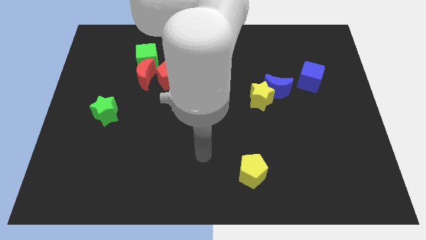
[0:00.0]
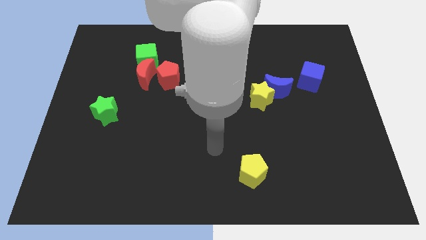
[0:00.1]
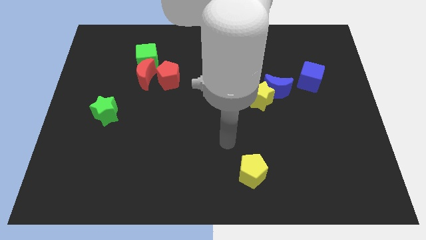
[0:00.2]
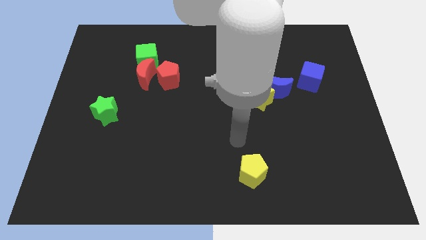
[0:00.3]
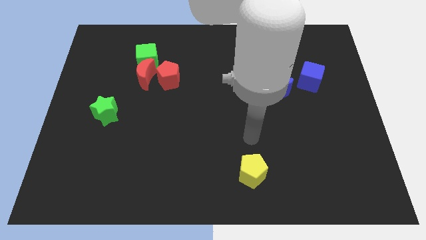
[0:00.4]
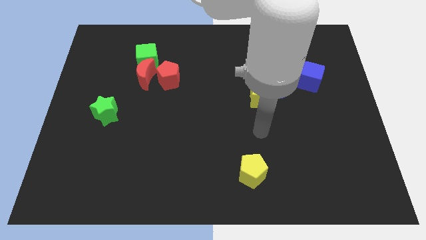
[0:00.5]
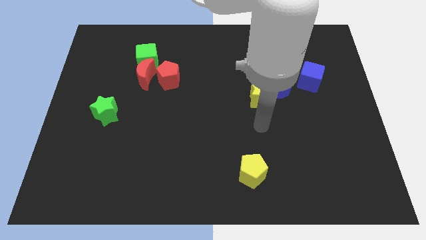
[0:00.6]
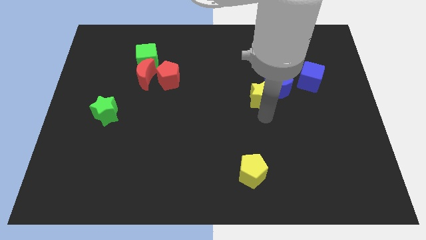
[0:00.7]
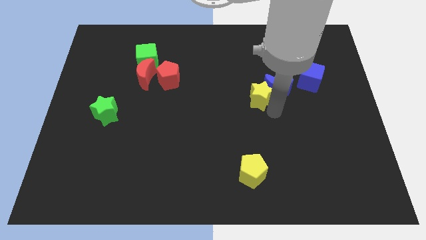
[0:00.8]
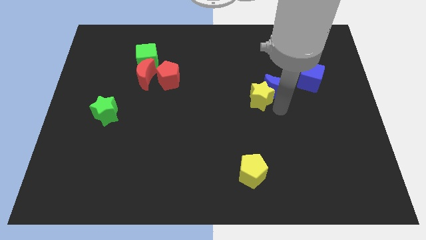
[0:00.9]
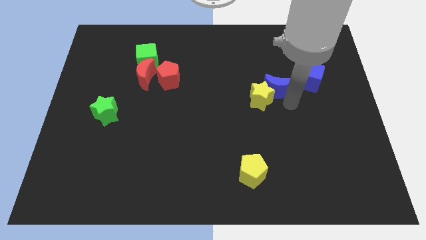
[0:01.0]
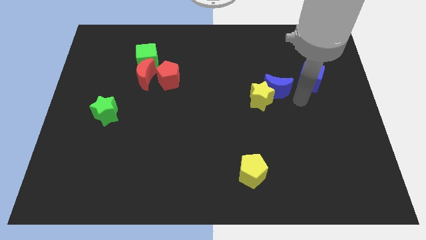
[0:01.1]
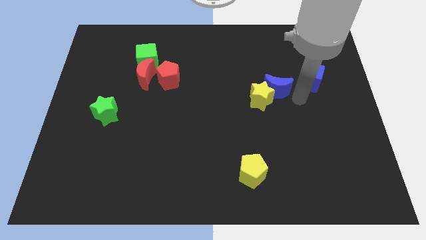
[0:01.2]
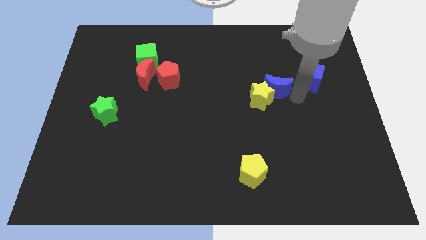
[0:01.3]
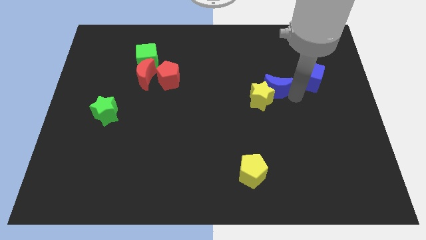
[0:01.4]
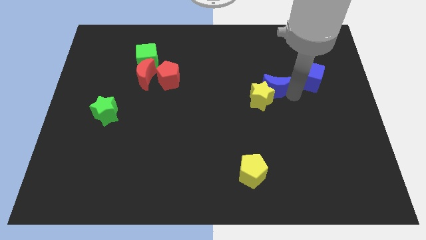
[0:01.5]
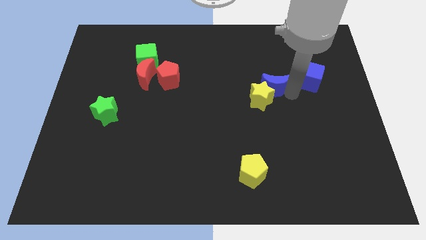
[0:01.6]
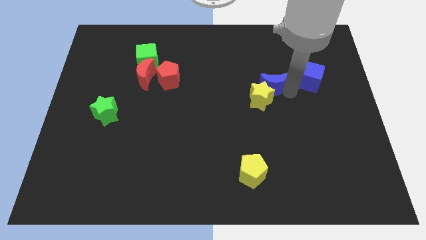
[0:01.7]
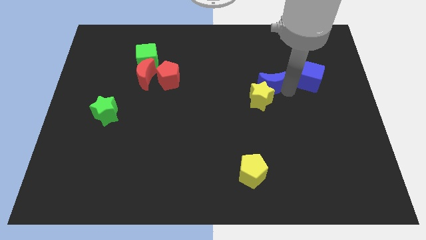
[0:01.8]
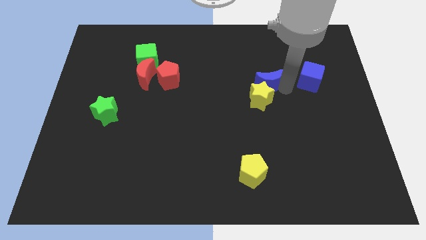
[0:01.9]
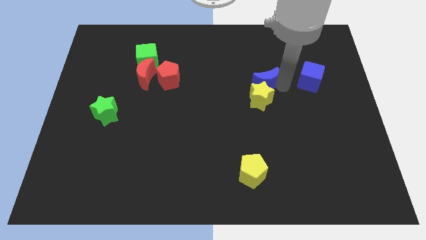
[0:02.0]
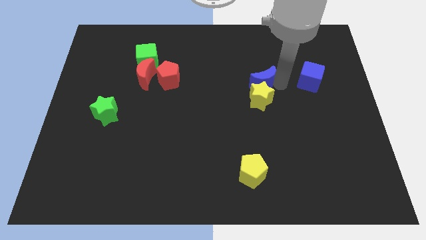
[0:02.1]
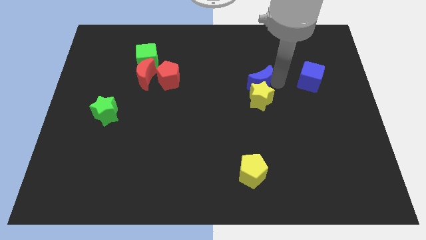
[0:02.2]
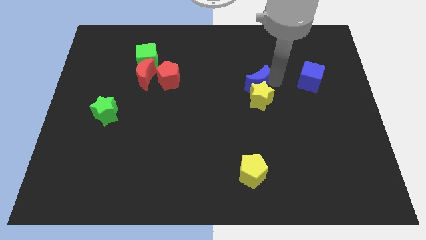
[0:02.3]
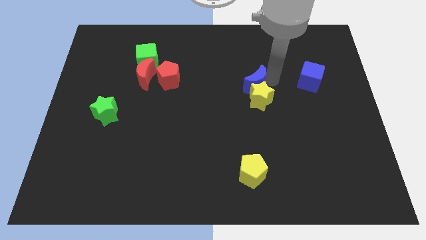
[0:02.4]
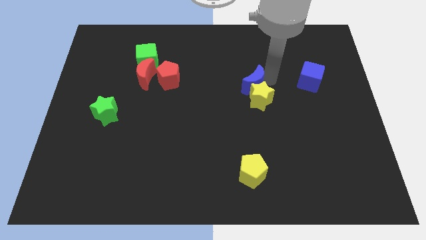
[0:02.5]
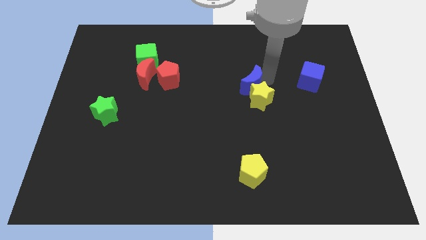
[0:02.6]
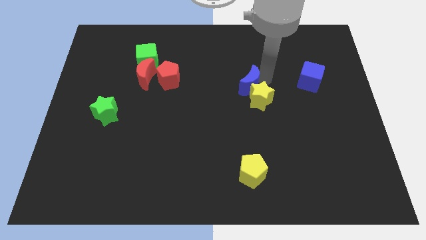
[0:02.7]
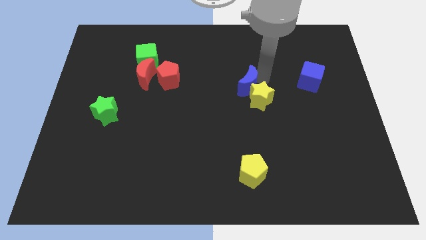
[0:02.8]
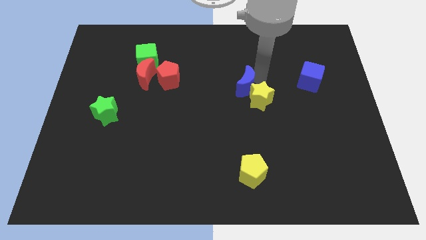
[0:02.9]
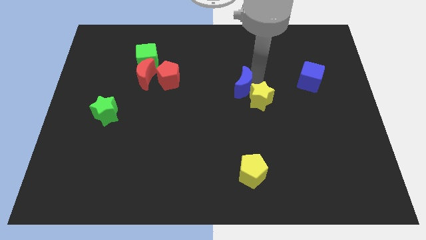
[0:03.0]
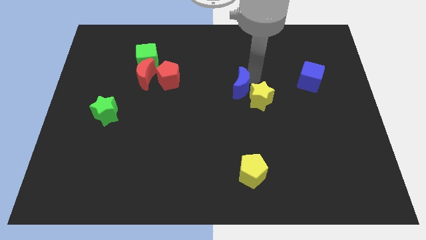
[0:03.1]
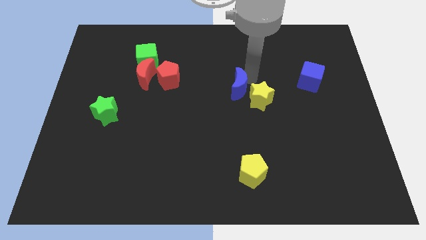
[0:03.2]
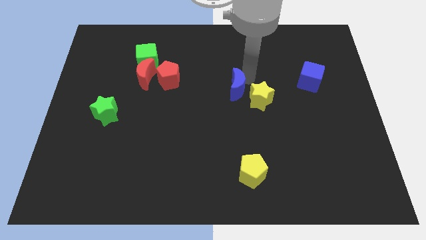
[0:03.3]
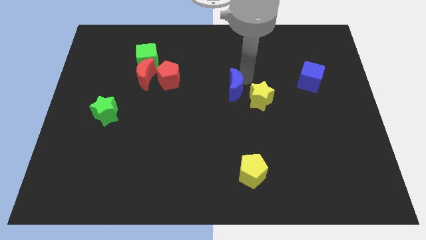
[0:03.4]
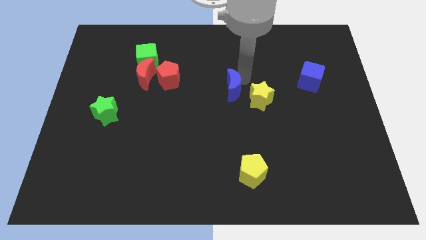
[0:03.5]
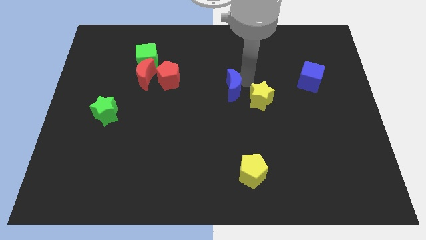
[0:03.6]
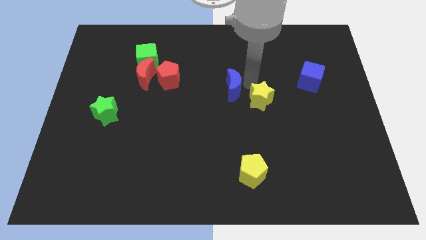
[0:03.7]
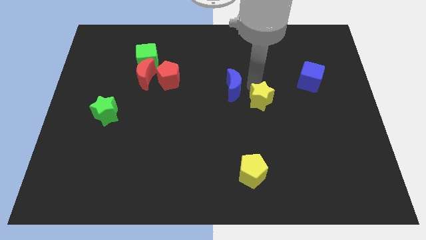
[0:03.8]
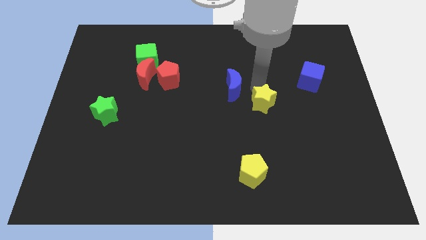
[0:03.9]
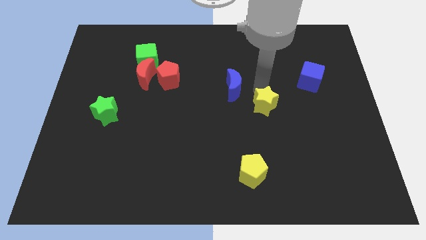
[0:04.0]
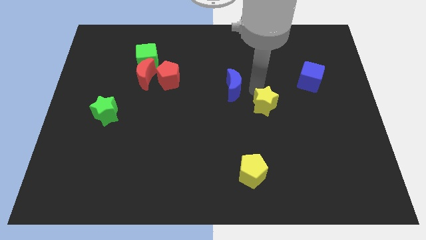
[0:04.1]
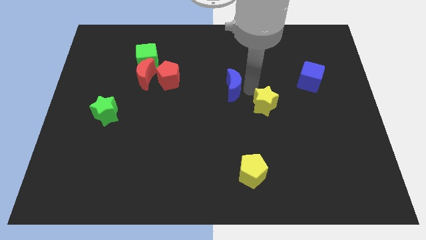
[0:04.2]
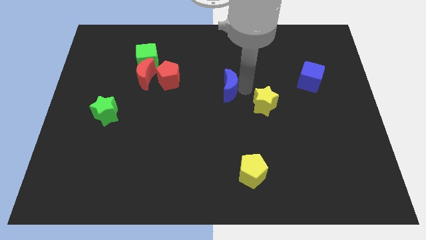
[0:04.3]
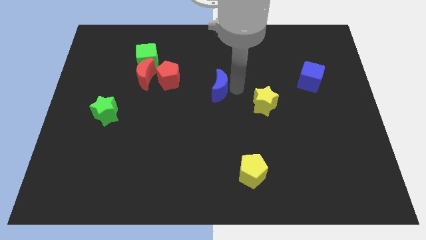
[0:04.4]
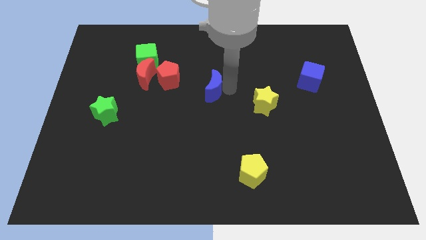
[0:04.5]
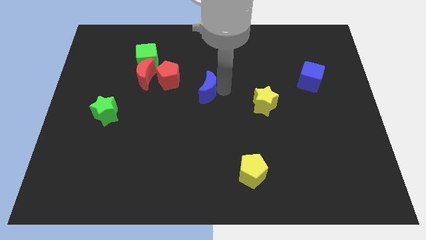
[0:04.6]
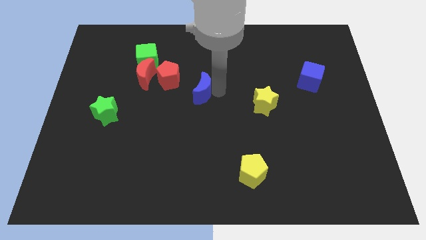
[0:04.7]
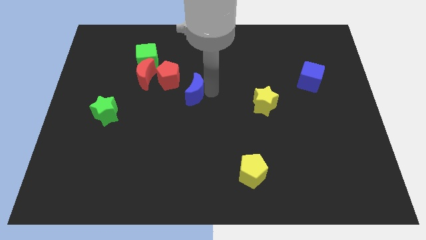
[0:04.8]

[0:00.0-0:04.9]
slide the blue moon left

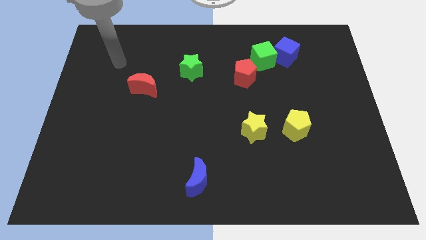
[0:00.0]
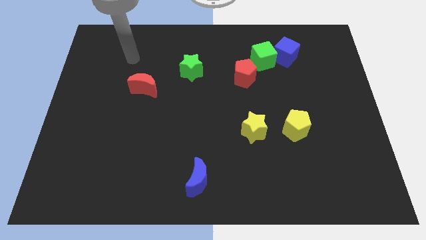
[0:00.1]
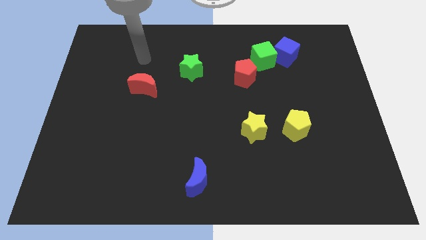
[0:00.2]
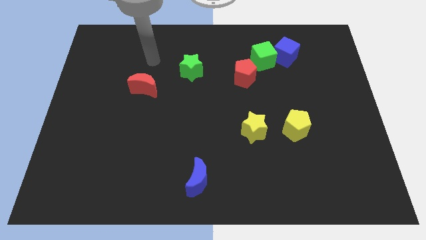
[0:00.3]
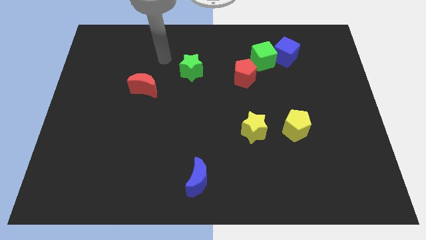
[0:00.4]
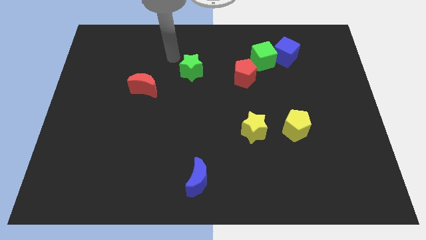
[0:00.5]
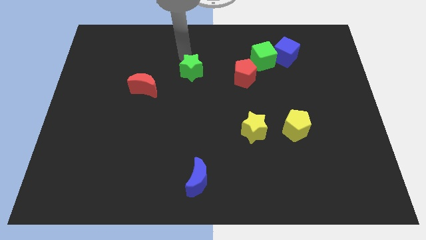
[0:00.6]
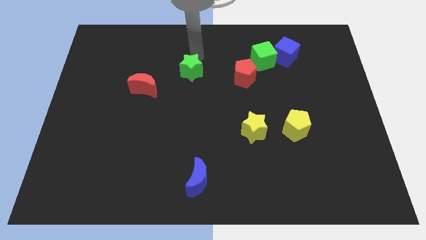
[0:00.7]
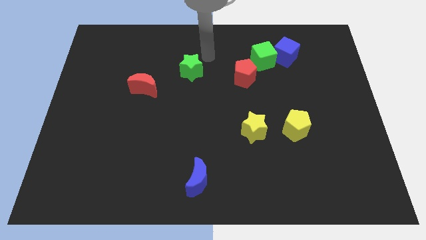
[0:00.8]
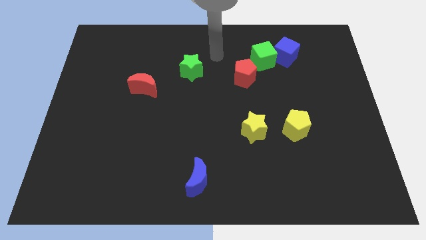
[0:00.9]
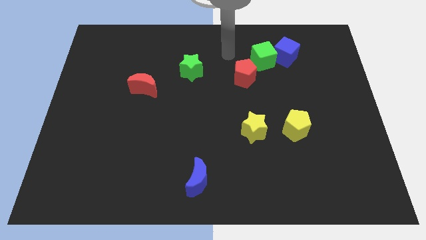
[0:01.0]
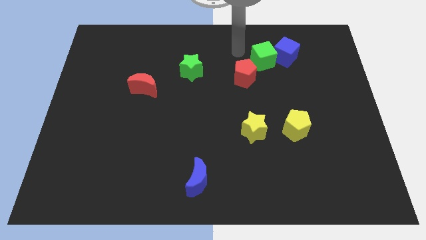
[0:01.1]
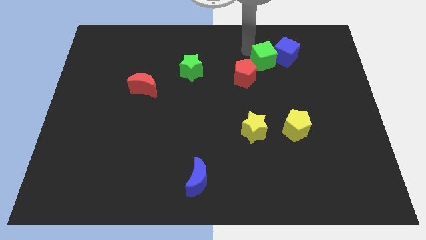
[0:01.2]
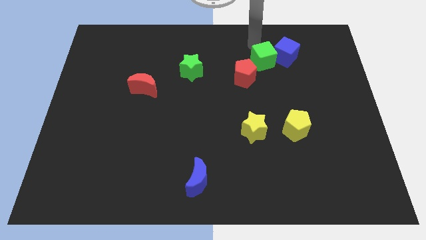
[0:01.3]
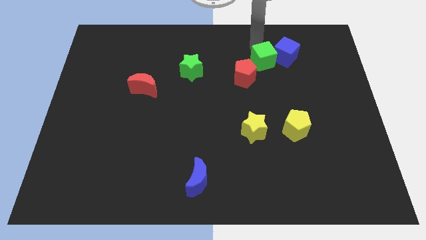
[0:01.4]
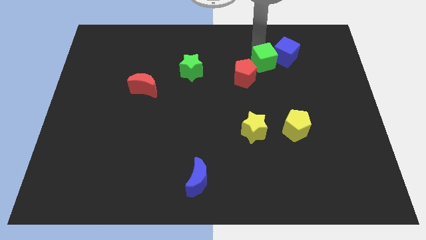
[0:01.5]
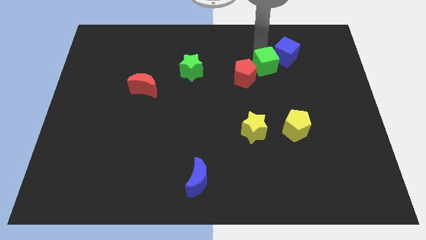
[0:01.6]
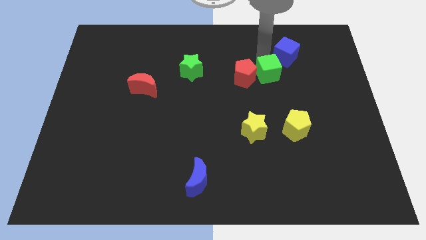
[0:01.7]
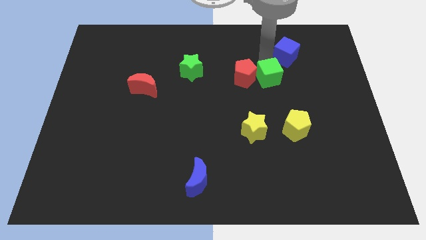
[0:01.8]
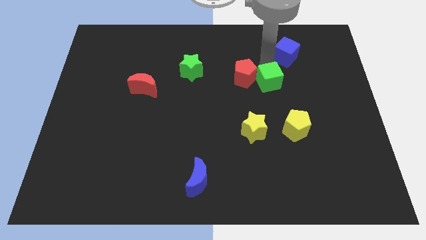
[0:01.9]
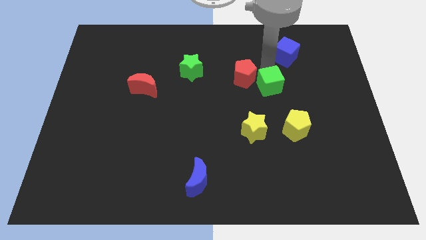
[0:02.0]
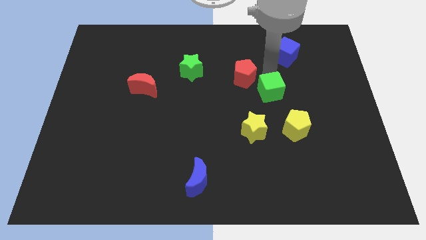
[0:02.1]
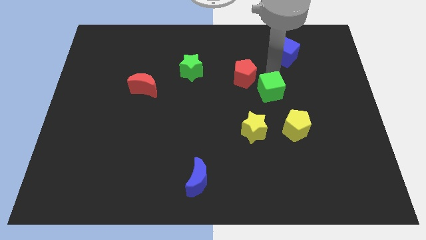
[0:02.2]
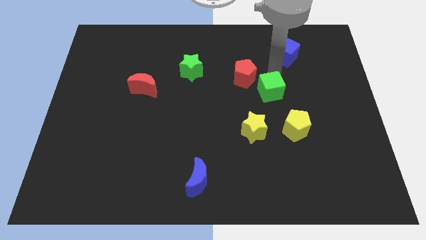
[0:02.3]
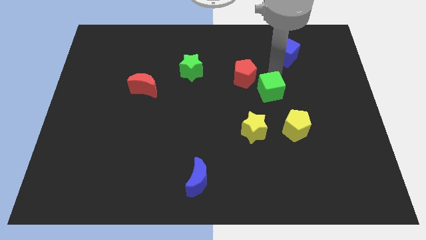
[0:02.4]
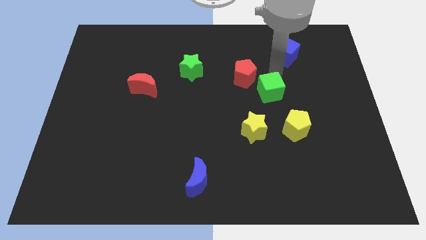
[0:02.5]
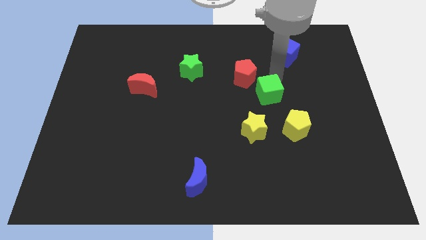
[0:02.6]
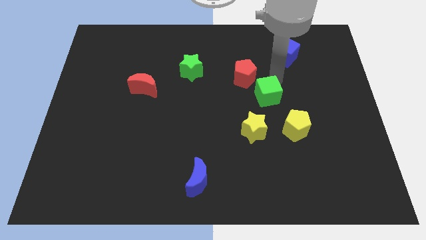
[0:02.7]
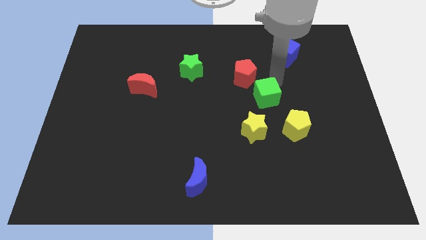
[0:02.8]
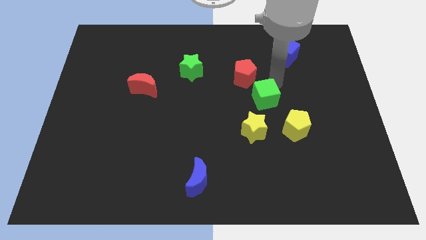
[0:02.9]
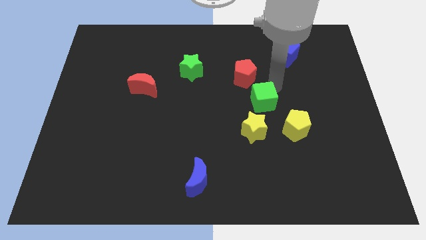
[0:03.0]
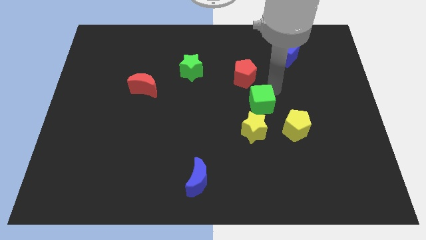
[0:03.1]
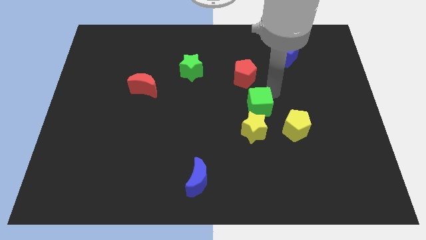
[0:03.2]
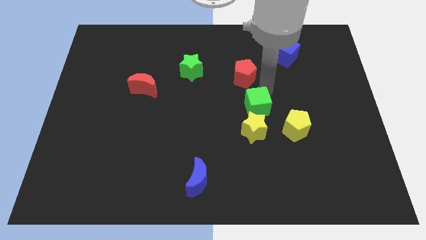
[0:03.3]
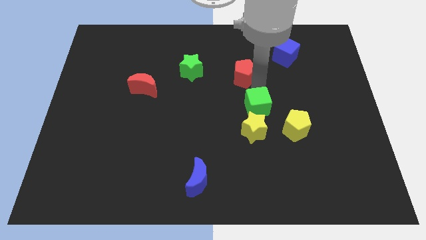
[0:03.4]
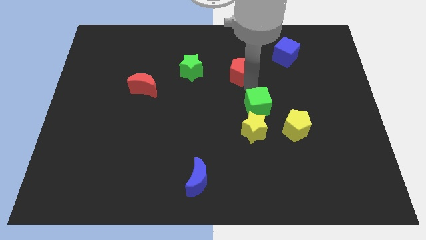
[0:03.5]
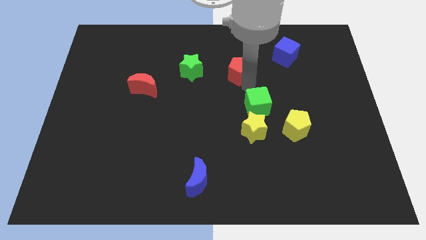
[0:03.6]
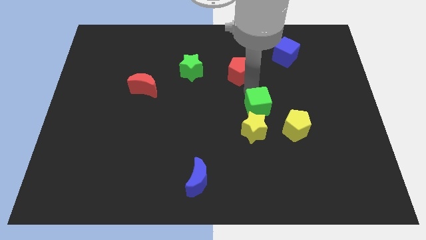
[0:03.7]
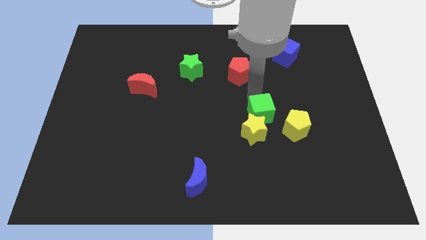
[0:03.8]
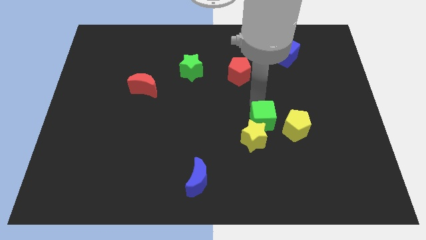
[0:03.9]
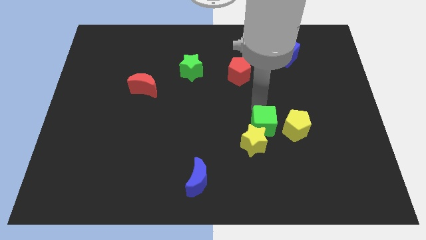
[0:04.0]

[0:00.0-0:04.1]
slide the green cube down
